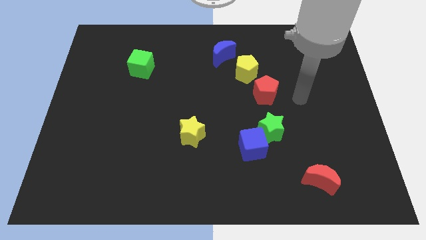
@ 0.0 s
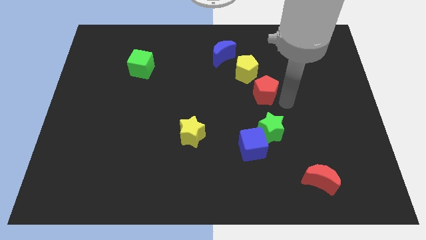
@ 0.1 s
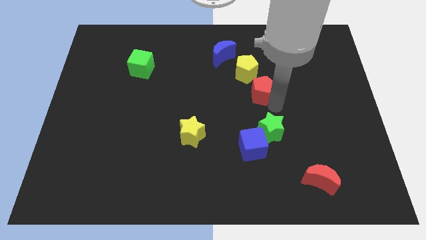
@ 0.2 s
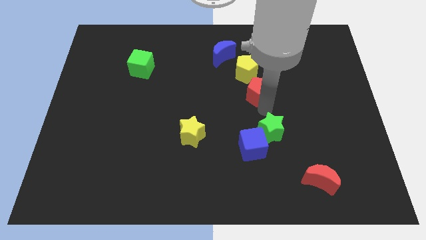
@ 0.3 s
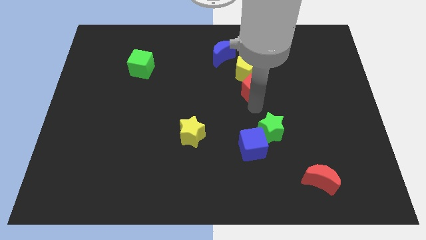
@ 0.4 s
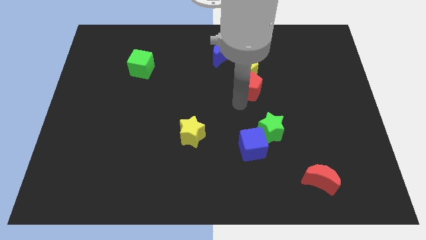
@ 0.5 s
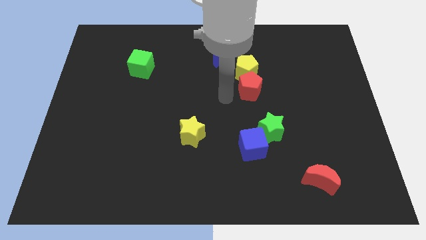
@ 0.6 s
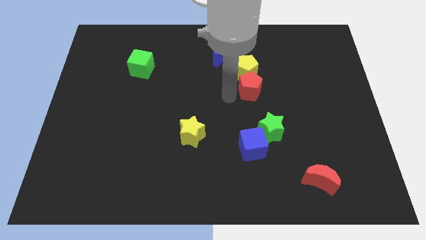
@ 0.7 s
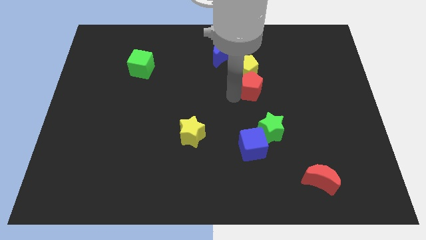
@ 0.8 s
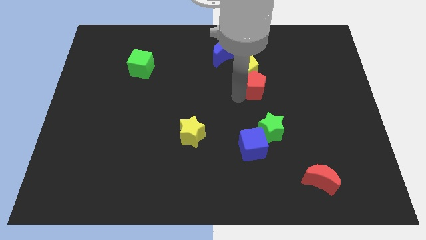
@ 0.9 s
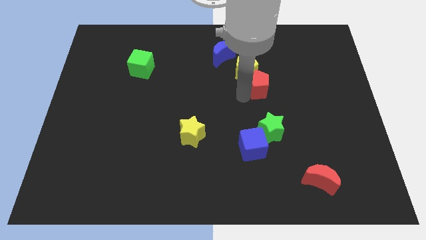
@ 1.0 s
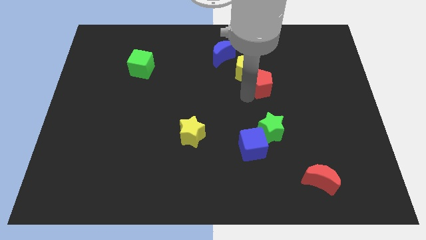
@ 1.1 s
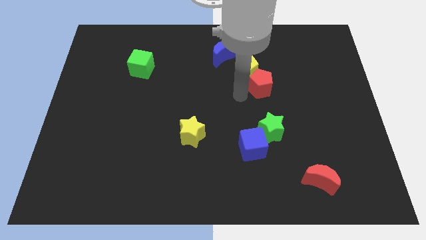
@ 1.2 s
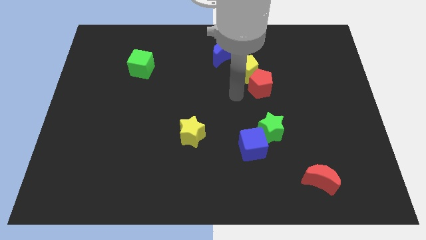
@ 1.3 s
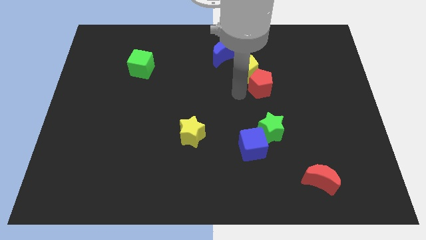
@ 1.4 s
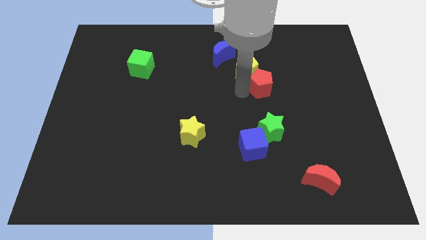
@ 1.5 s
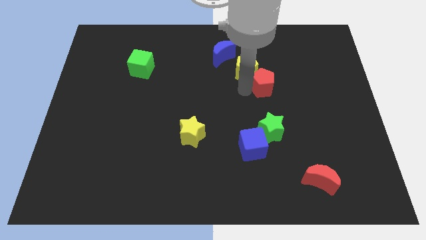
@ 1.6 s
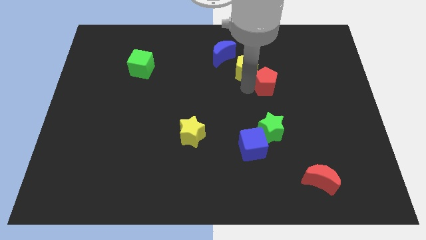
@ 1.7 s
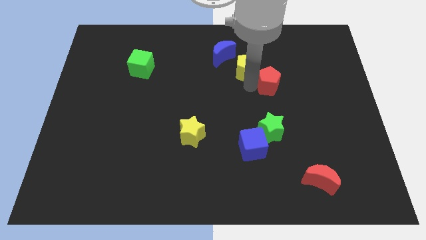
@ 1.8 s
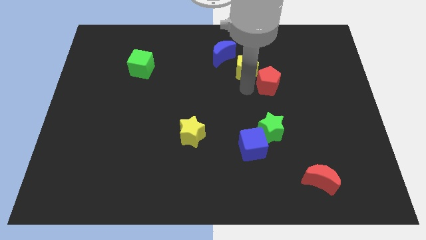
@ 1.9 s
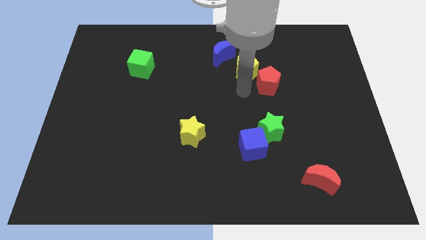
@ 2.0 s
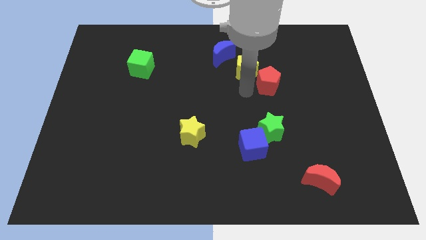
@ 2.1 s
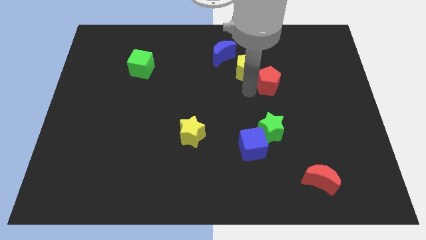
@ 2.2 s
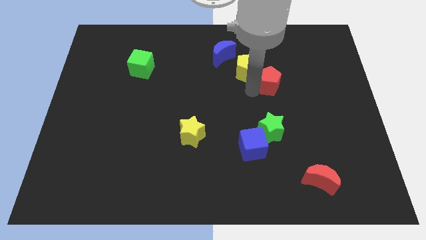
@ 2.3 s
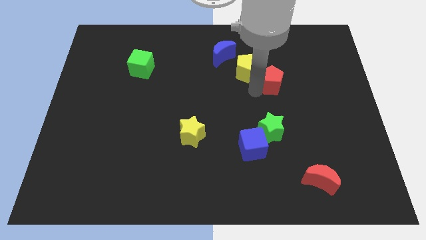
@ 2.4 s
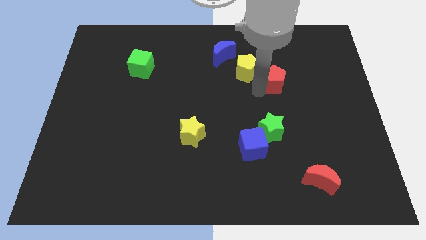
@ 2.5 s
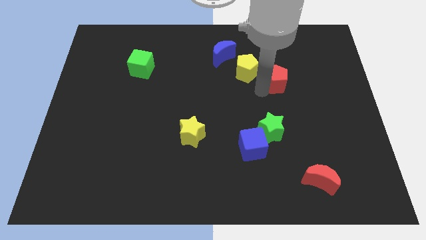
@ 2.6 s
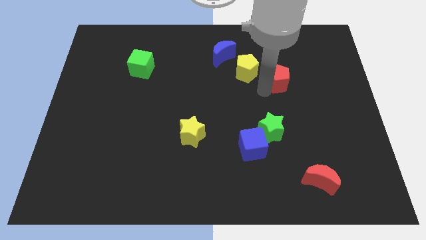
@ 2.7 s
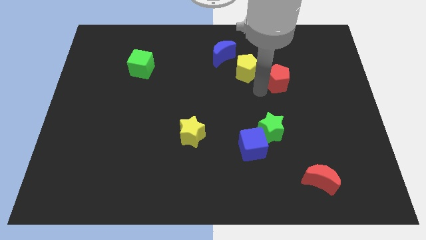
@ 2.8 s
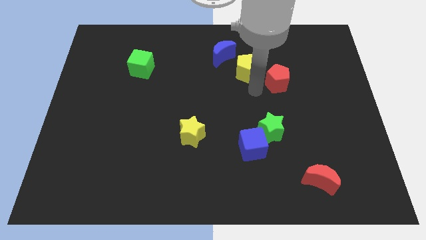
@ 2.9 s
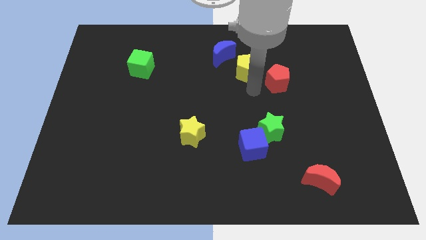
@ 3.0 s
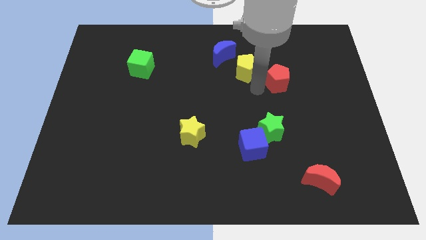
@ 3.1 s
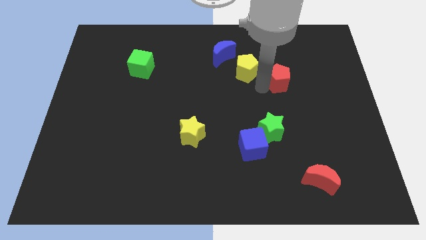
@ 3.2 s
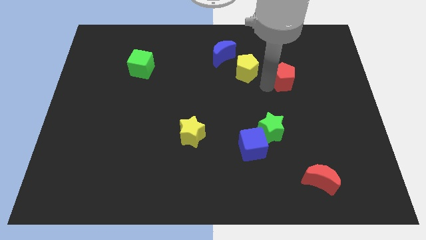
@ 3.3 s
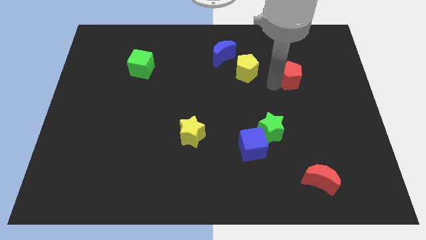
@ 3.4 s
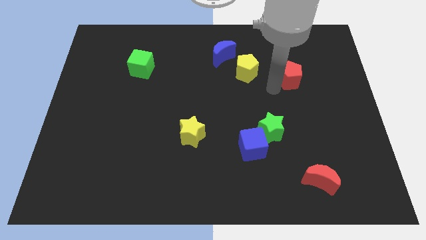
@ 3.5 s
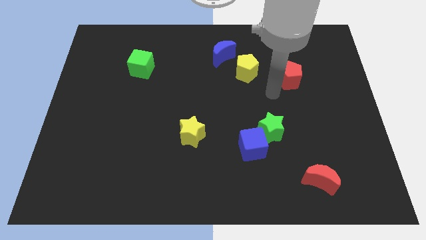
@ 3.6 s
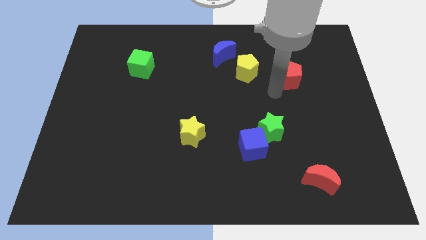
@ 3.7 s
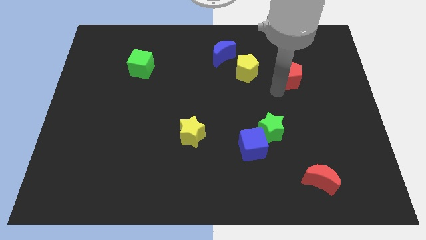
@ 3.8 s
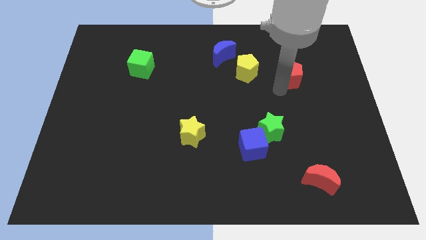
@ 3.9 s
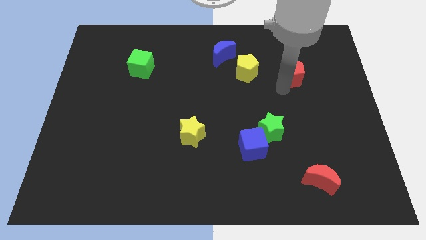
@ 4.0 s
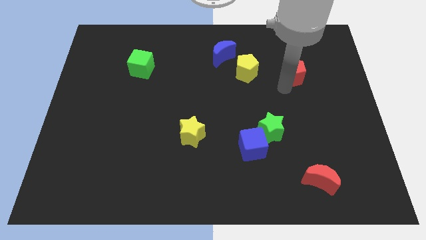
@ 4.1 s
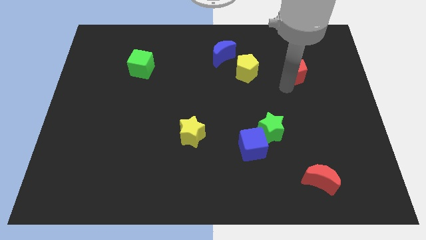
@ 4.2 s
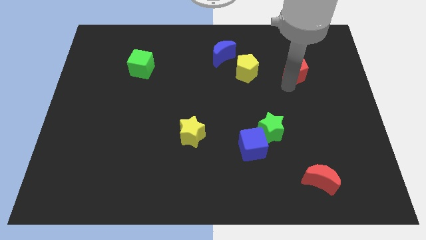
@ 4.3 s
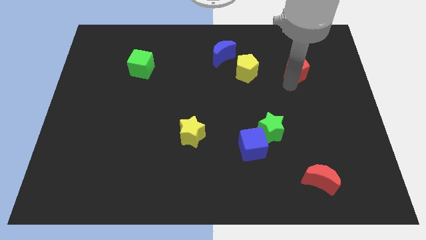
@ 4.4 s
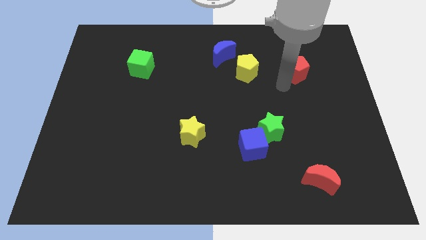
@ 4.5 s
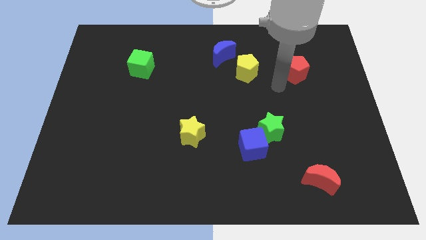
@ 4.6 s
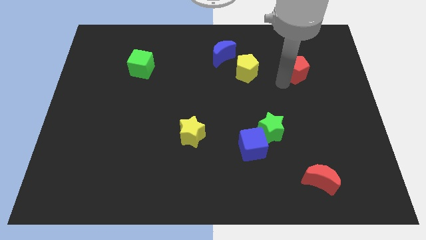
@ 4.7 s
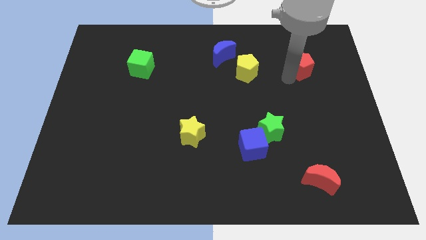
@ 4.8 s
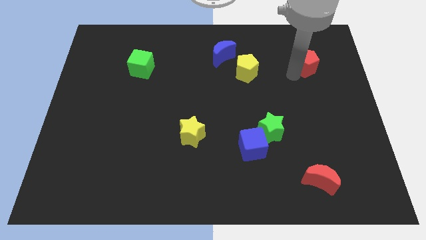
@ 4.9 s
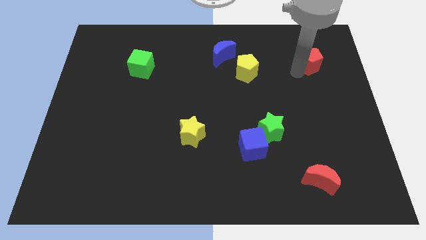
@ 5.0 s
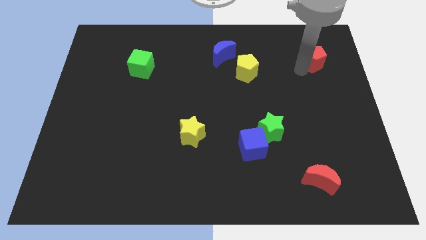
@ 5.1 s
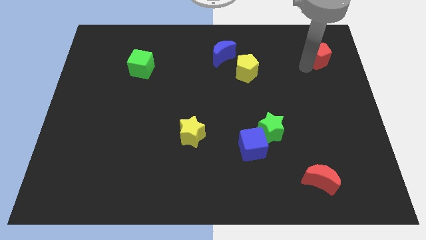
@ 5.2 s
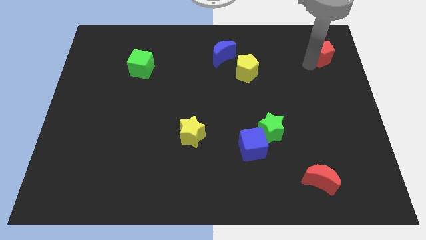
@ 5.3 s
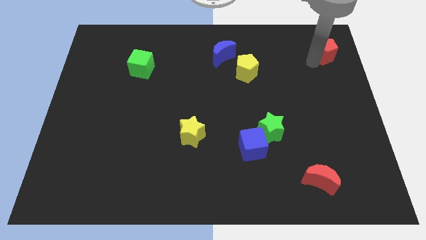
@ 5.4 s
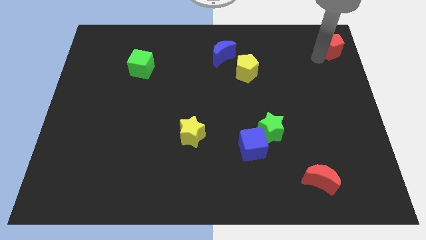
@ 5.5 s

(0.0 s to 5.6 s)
move the red pentagon to the top right of the board

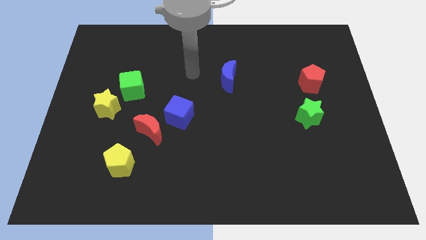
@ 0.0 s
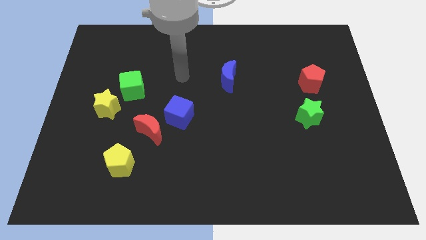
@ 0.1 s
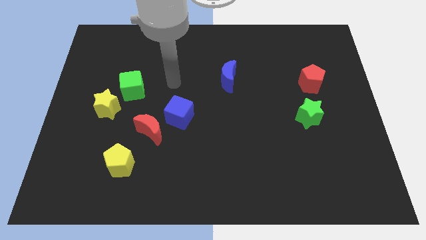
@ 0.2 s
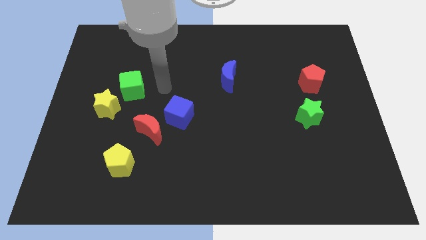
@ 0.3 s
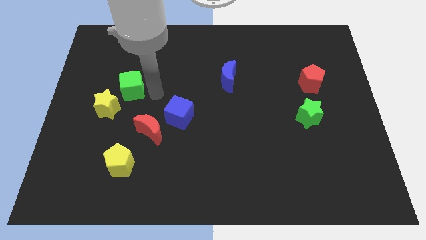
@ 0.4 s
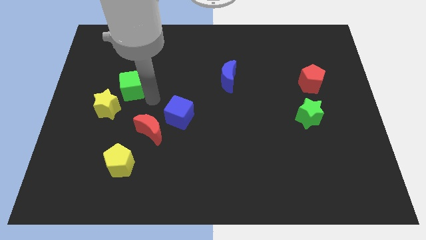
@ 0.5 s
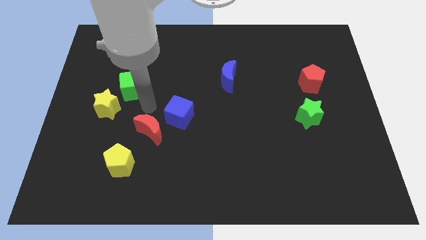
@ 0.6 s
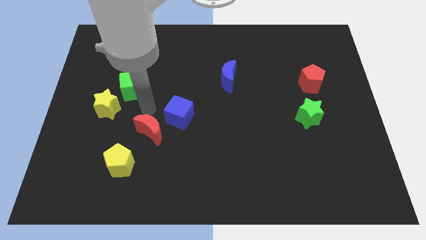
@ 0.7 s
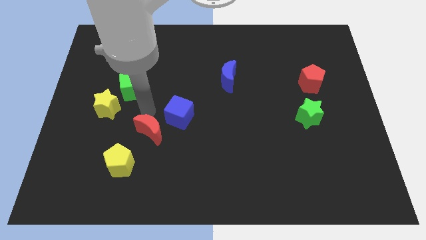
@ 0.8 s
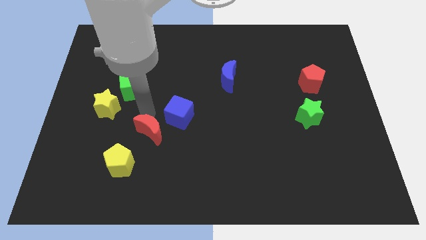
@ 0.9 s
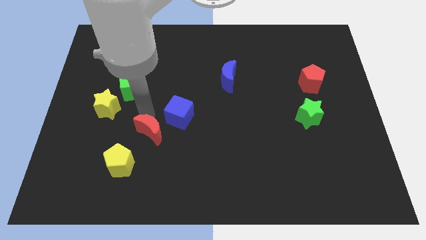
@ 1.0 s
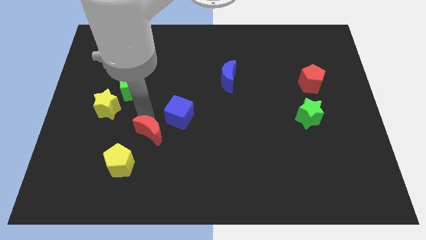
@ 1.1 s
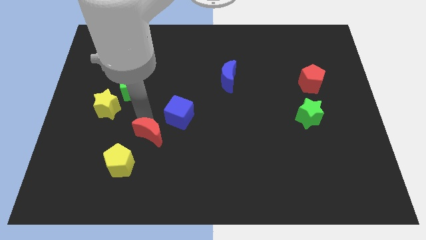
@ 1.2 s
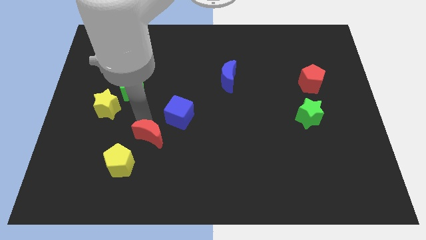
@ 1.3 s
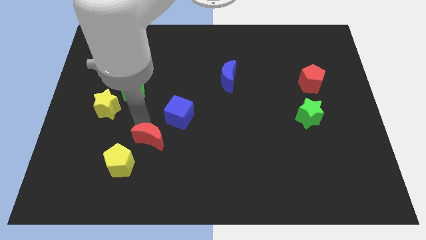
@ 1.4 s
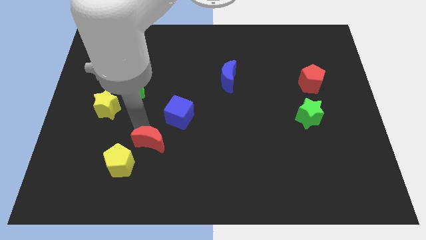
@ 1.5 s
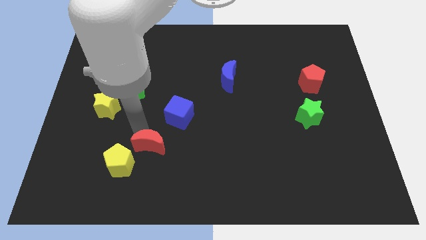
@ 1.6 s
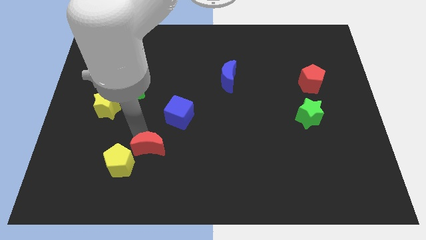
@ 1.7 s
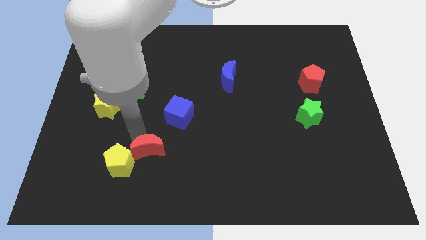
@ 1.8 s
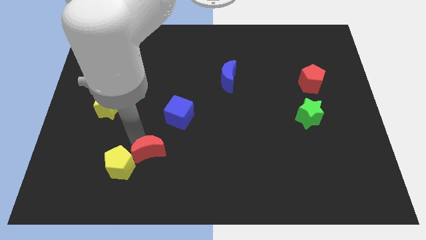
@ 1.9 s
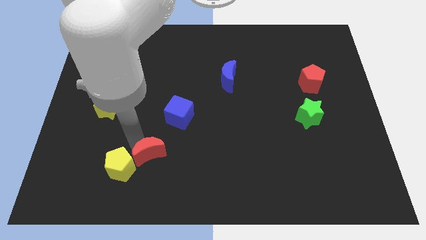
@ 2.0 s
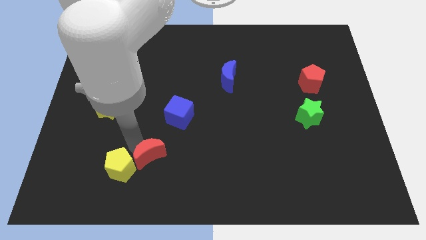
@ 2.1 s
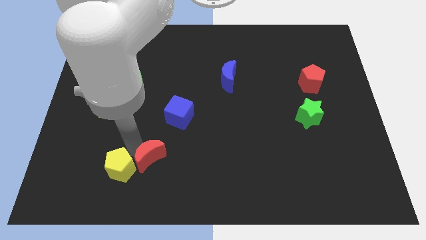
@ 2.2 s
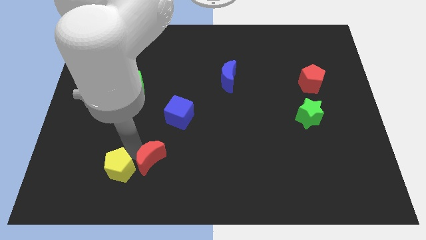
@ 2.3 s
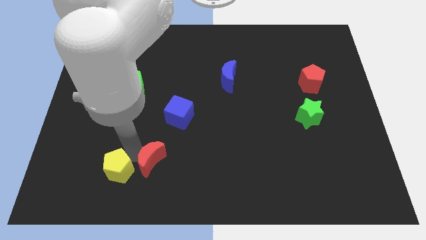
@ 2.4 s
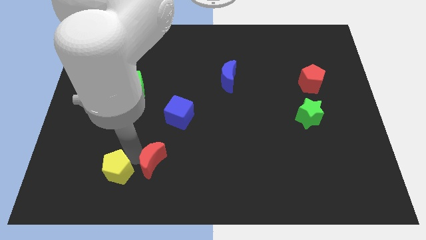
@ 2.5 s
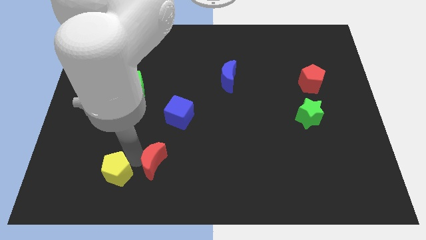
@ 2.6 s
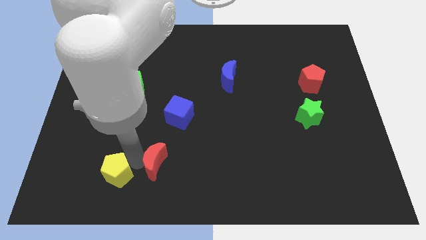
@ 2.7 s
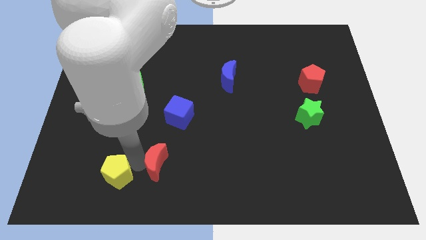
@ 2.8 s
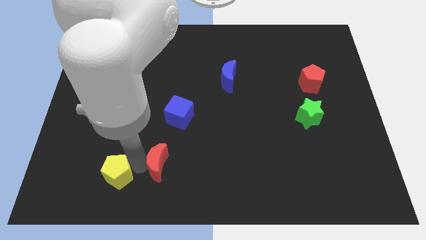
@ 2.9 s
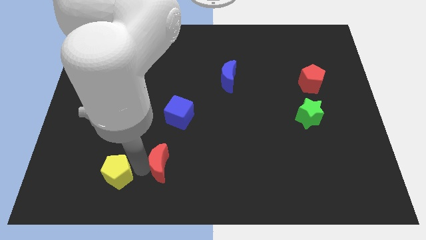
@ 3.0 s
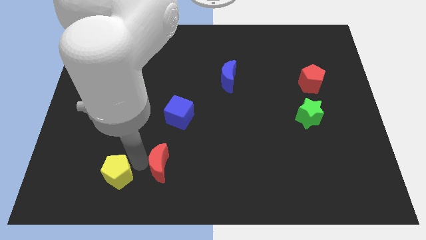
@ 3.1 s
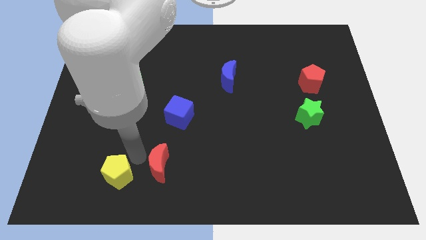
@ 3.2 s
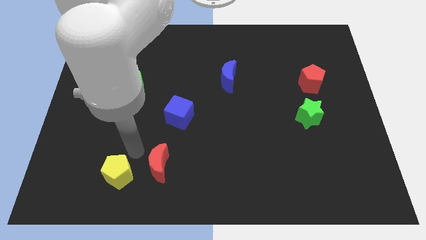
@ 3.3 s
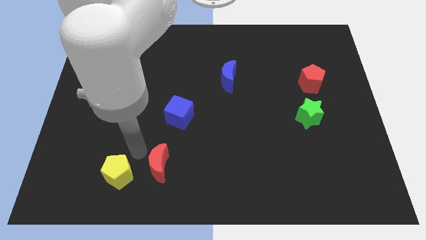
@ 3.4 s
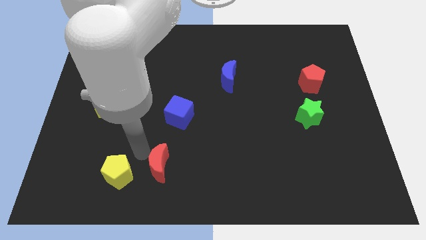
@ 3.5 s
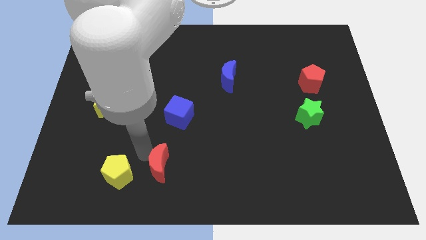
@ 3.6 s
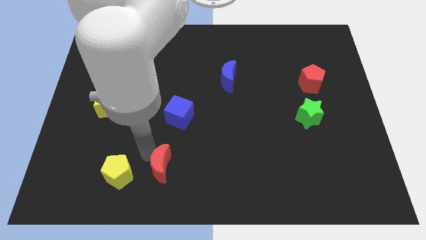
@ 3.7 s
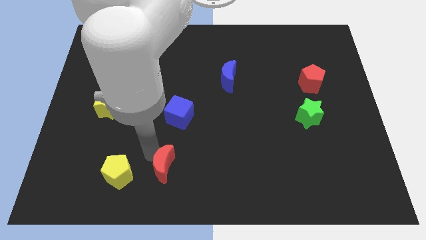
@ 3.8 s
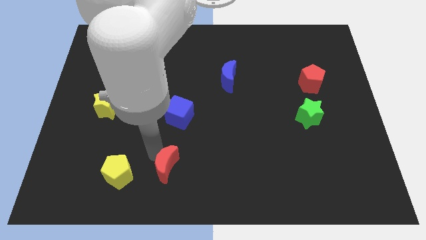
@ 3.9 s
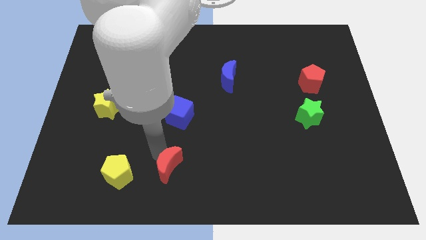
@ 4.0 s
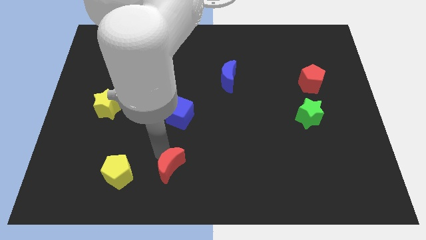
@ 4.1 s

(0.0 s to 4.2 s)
push the red moon to the bottom
